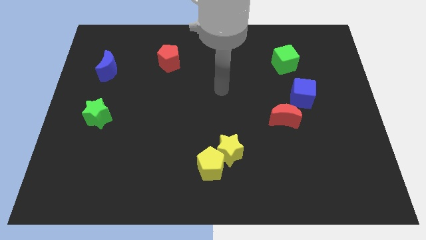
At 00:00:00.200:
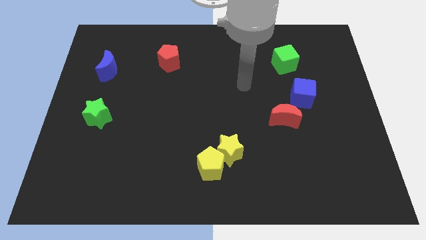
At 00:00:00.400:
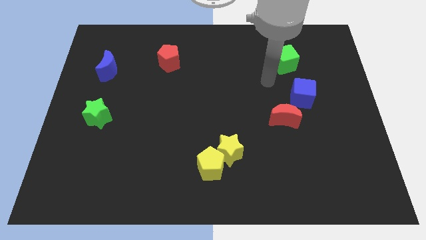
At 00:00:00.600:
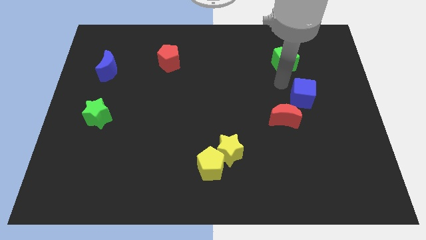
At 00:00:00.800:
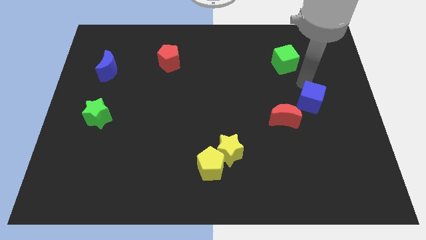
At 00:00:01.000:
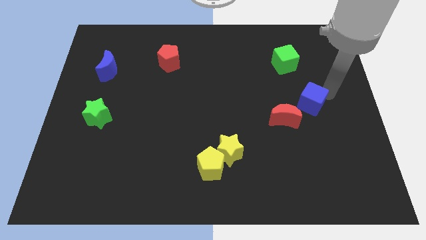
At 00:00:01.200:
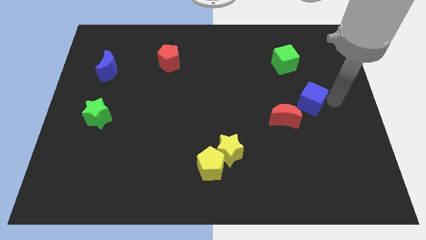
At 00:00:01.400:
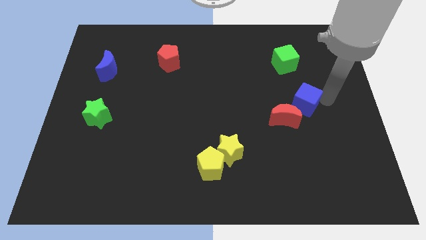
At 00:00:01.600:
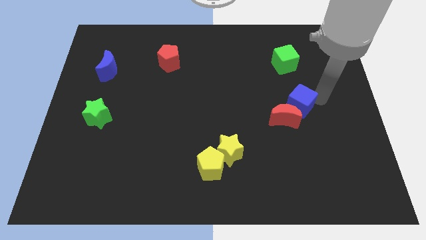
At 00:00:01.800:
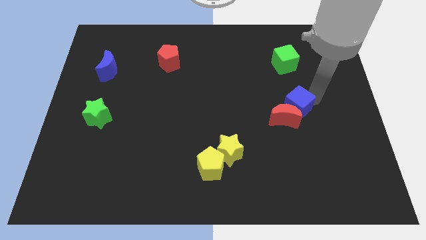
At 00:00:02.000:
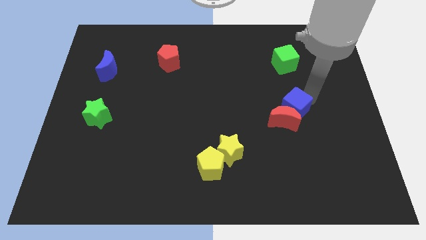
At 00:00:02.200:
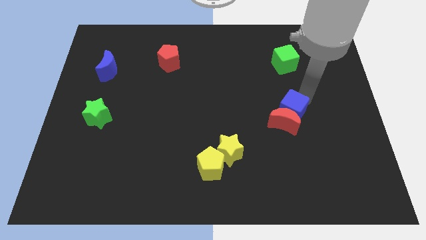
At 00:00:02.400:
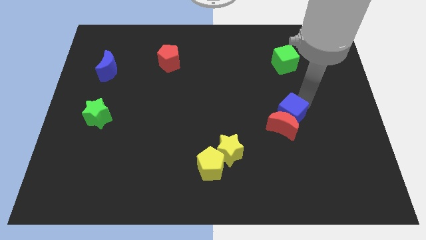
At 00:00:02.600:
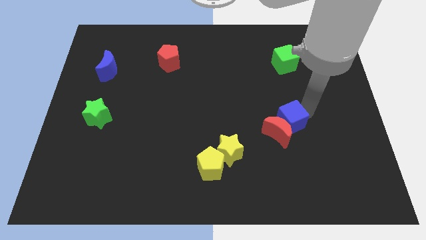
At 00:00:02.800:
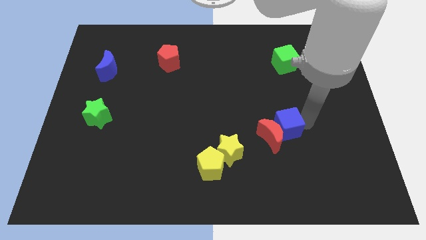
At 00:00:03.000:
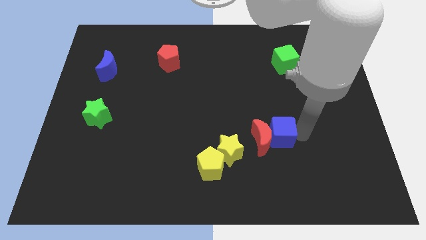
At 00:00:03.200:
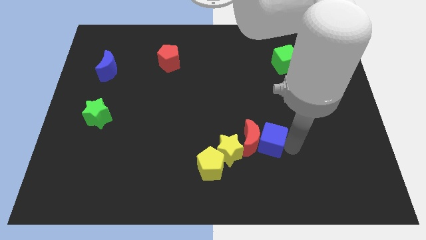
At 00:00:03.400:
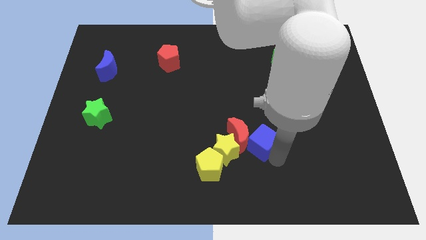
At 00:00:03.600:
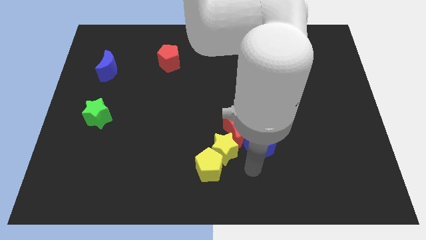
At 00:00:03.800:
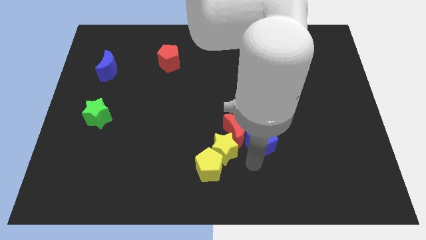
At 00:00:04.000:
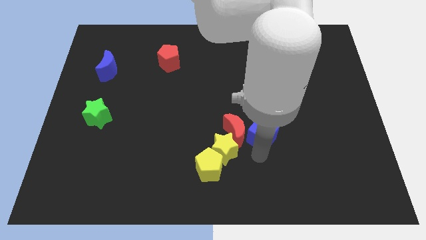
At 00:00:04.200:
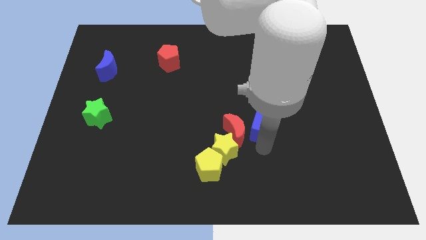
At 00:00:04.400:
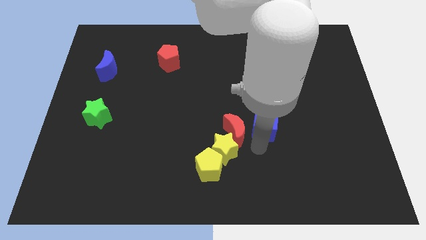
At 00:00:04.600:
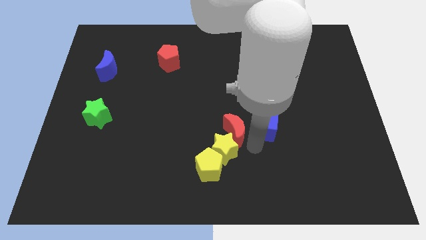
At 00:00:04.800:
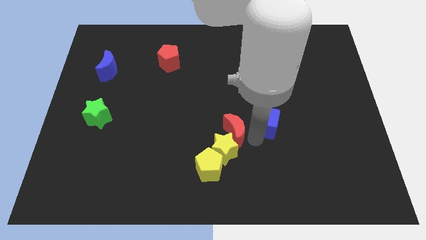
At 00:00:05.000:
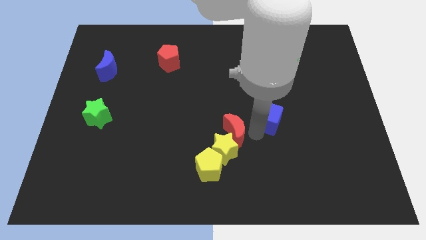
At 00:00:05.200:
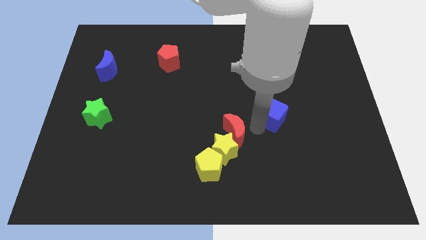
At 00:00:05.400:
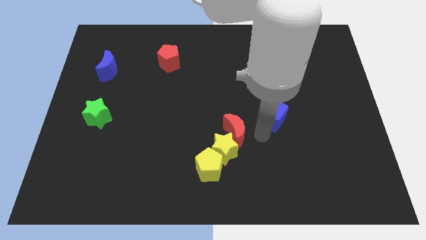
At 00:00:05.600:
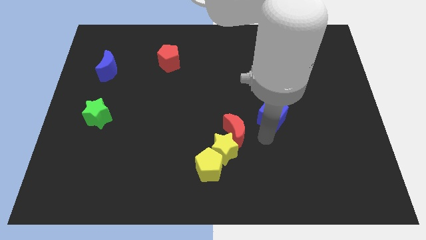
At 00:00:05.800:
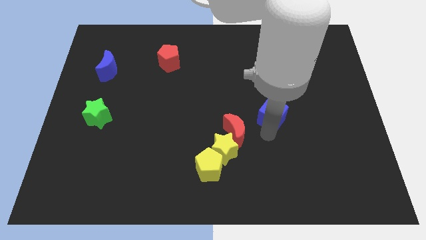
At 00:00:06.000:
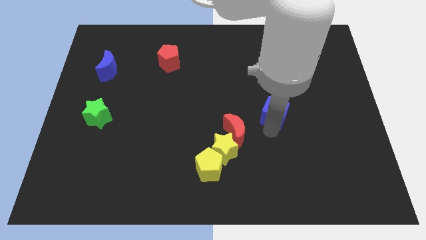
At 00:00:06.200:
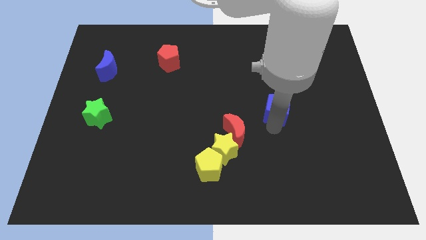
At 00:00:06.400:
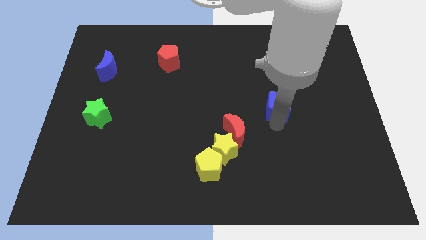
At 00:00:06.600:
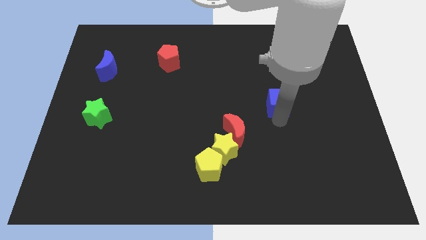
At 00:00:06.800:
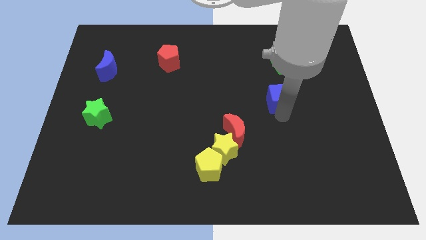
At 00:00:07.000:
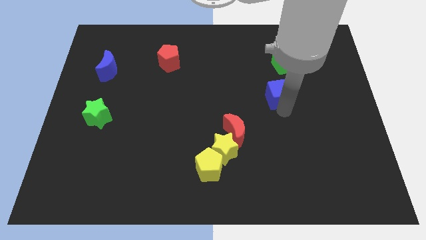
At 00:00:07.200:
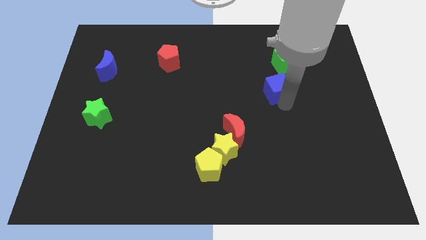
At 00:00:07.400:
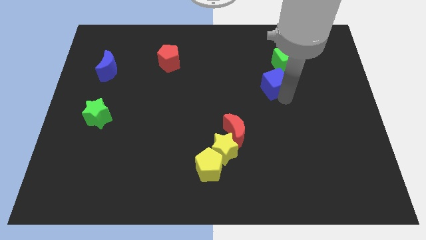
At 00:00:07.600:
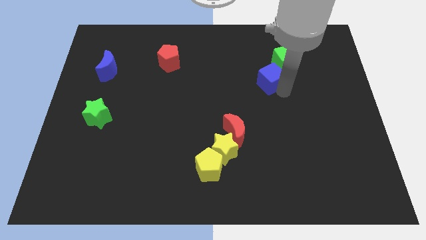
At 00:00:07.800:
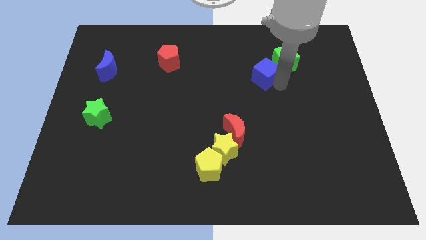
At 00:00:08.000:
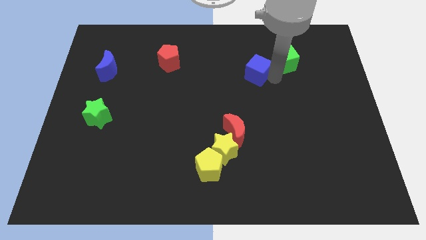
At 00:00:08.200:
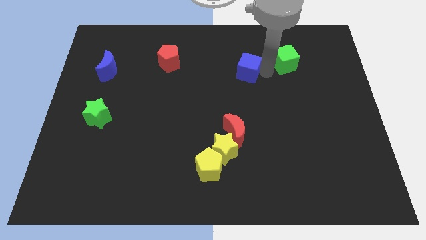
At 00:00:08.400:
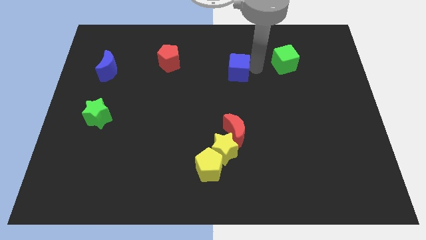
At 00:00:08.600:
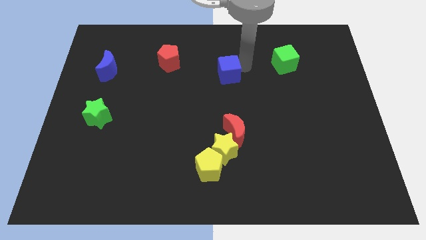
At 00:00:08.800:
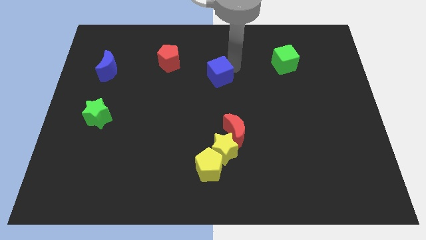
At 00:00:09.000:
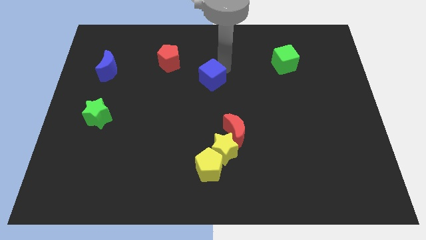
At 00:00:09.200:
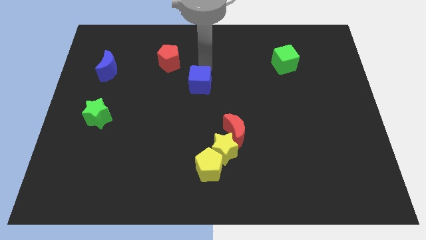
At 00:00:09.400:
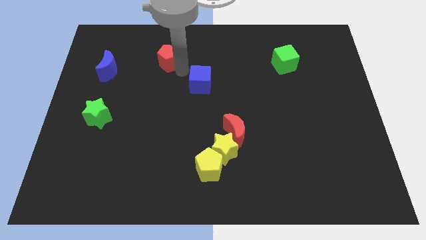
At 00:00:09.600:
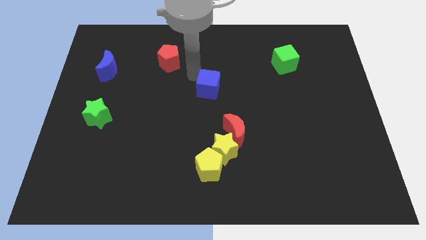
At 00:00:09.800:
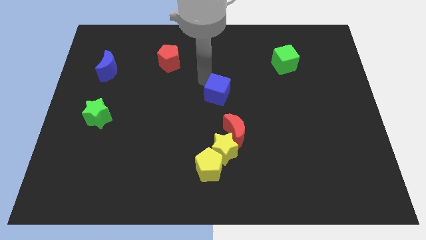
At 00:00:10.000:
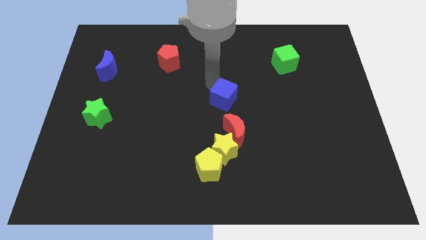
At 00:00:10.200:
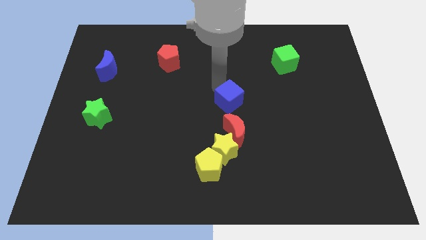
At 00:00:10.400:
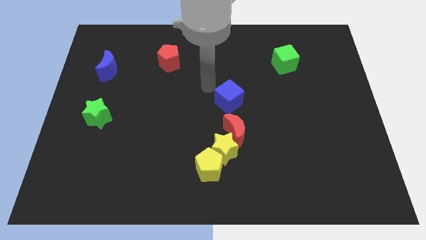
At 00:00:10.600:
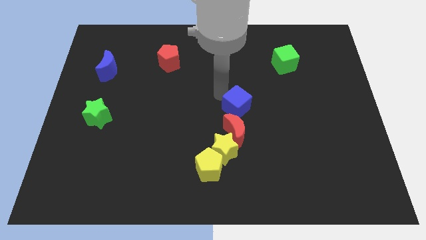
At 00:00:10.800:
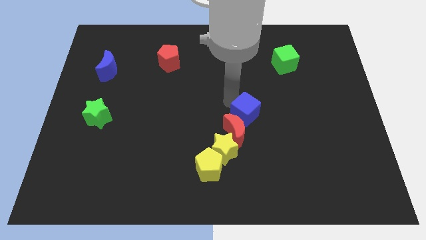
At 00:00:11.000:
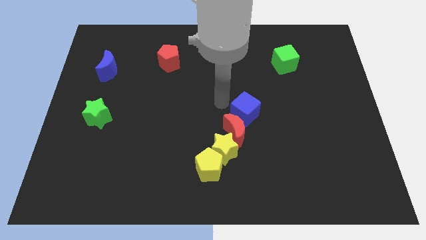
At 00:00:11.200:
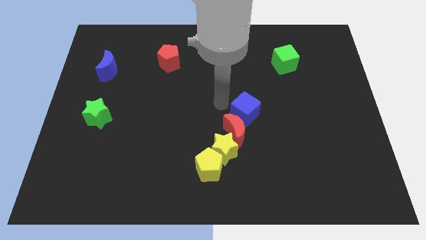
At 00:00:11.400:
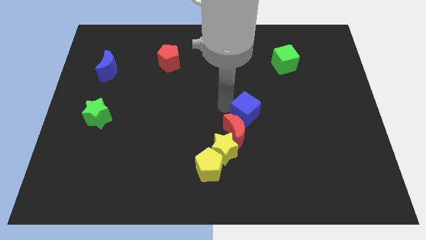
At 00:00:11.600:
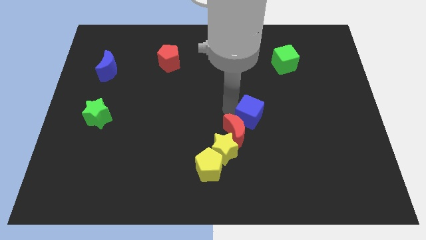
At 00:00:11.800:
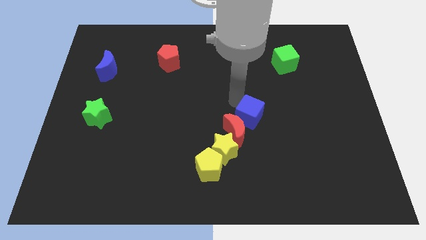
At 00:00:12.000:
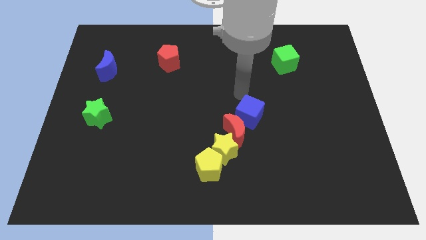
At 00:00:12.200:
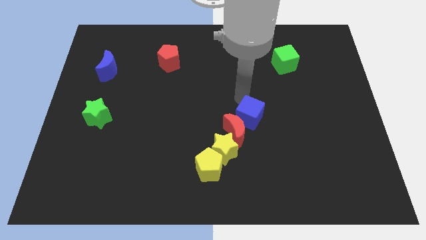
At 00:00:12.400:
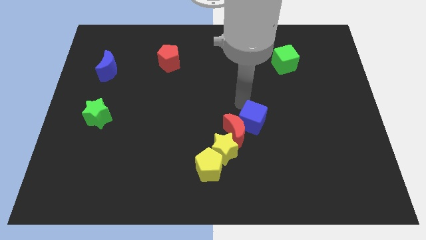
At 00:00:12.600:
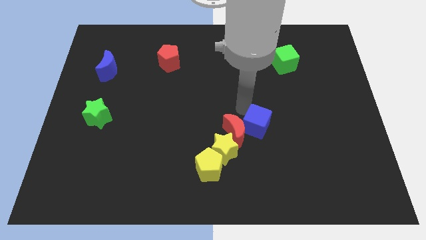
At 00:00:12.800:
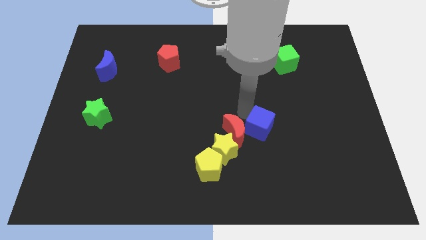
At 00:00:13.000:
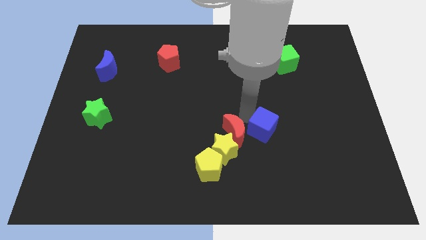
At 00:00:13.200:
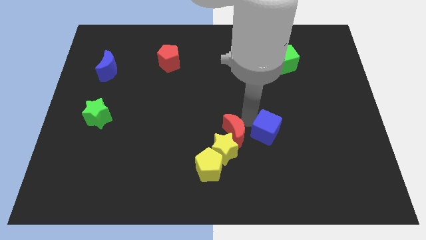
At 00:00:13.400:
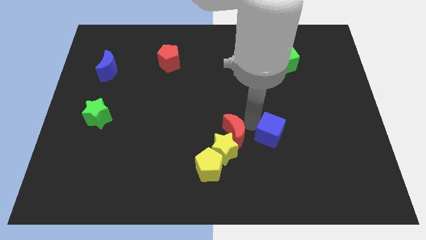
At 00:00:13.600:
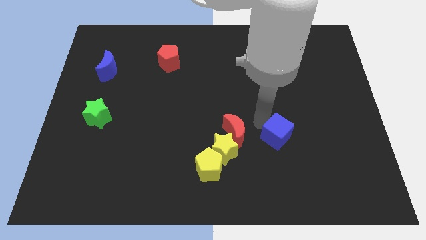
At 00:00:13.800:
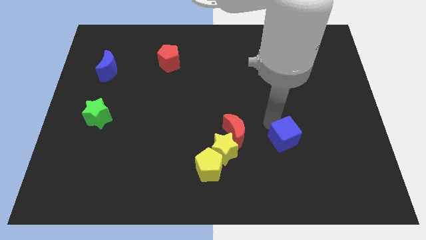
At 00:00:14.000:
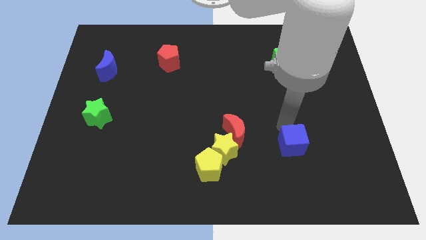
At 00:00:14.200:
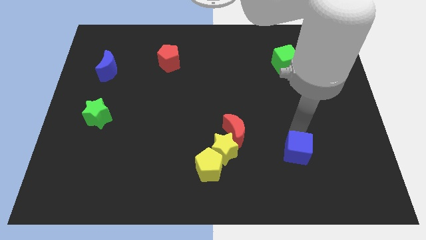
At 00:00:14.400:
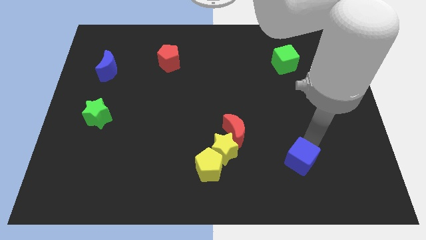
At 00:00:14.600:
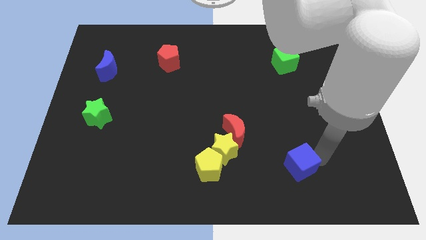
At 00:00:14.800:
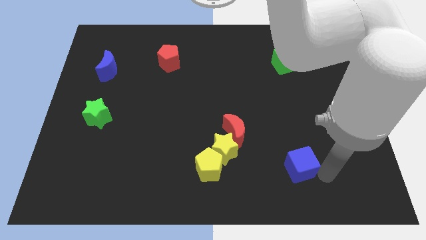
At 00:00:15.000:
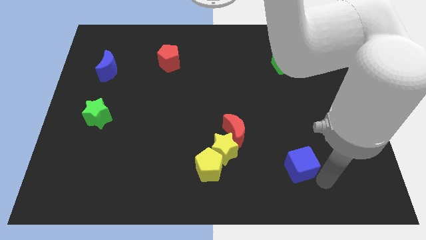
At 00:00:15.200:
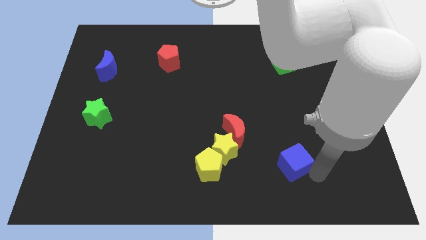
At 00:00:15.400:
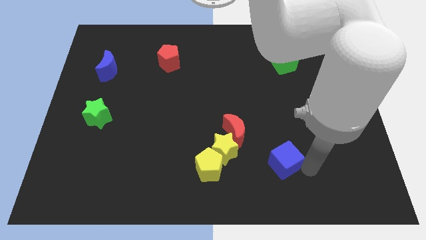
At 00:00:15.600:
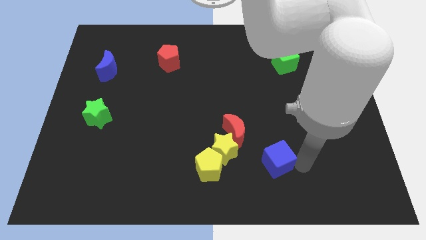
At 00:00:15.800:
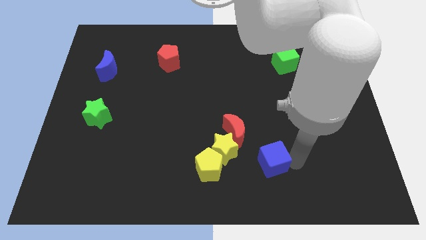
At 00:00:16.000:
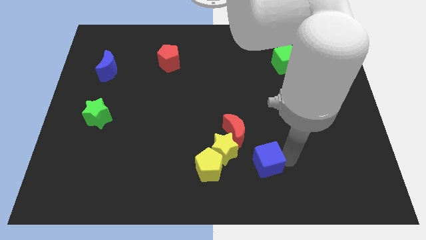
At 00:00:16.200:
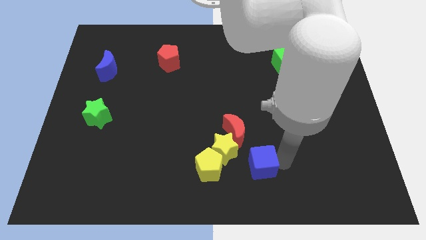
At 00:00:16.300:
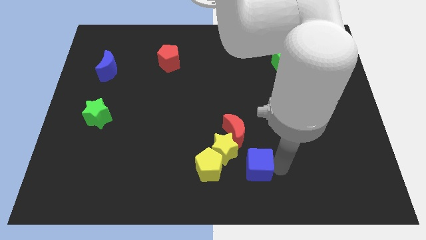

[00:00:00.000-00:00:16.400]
slide the blue cube to the bottom side
